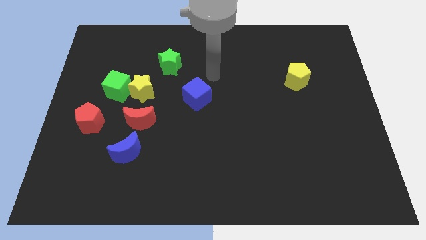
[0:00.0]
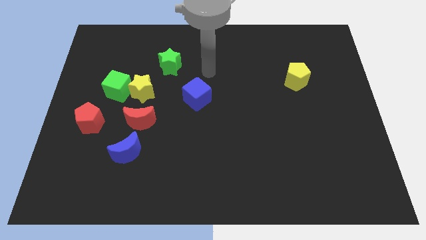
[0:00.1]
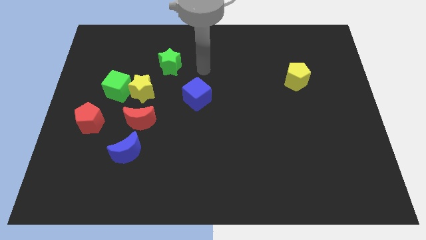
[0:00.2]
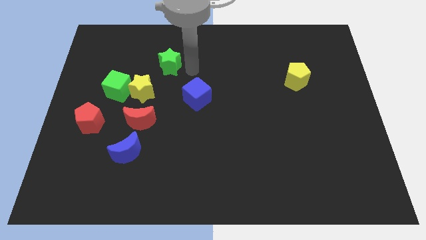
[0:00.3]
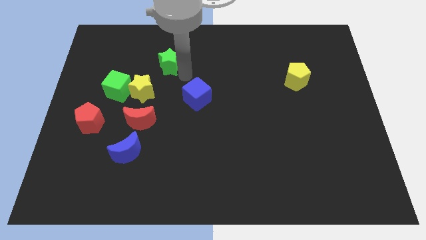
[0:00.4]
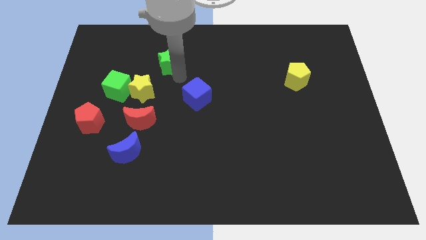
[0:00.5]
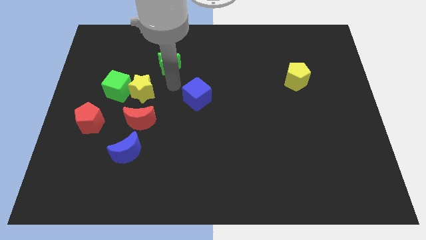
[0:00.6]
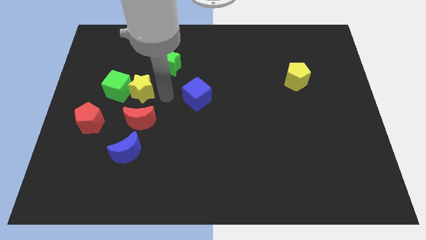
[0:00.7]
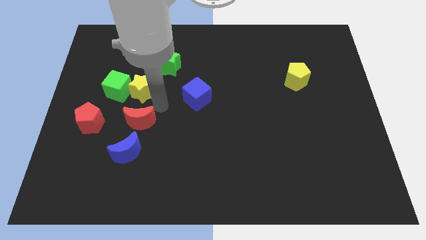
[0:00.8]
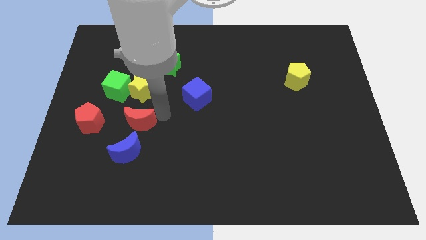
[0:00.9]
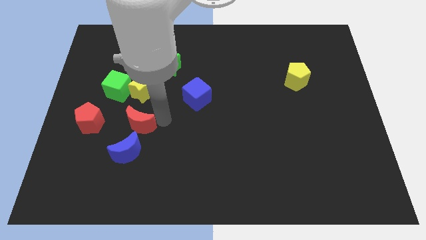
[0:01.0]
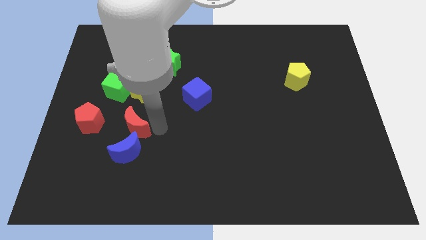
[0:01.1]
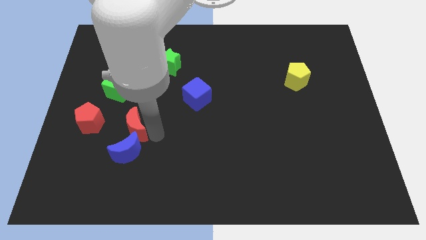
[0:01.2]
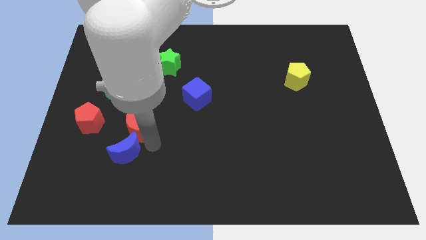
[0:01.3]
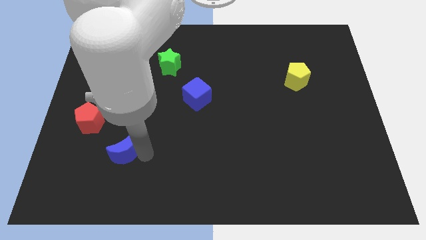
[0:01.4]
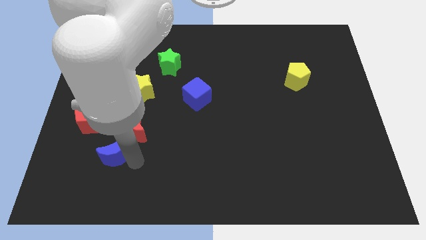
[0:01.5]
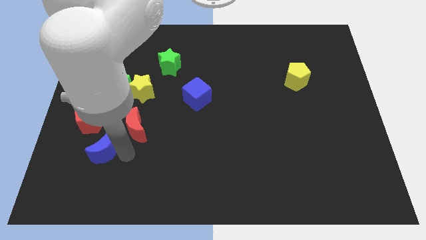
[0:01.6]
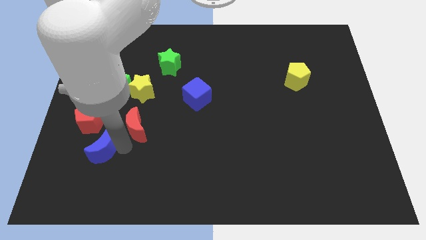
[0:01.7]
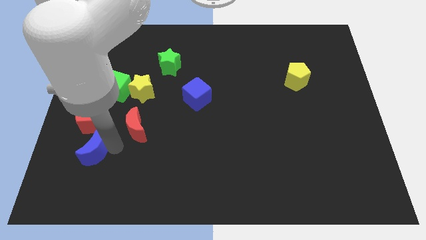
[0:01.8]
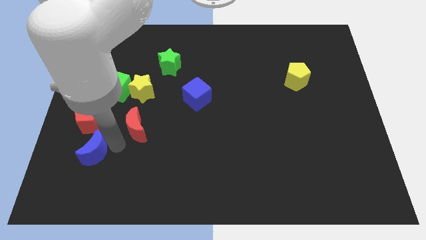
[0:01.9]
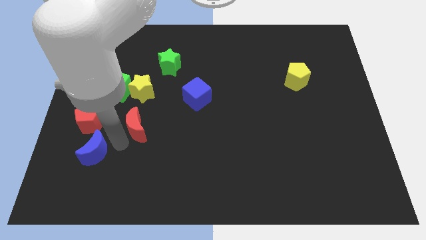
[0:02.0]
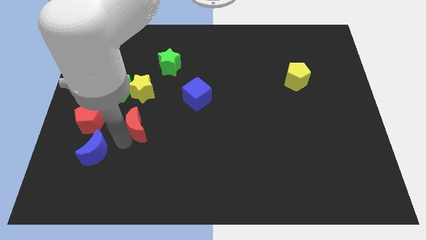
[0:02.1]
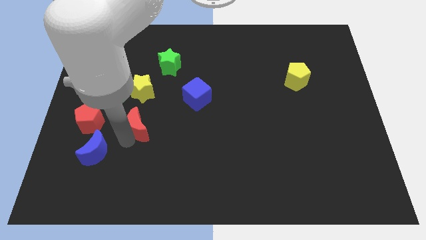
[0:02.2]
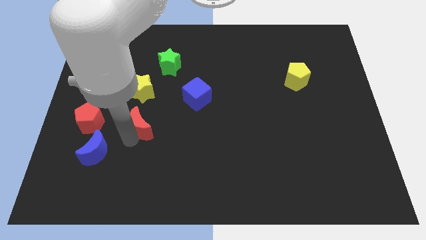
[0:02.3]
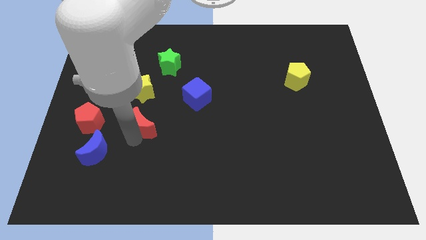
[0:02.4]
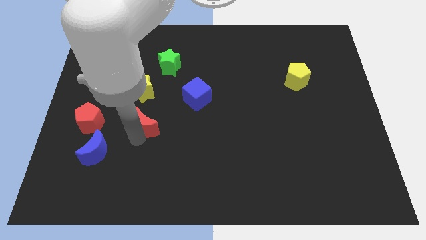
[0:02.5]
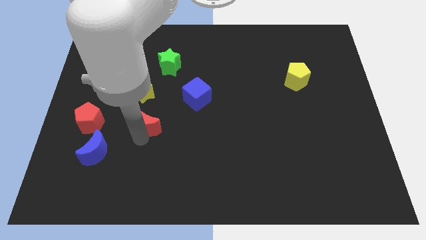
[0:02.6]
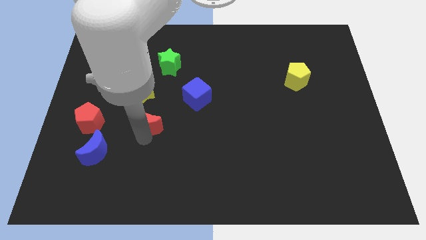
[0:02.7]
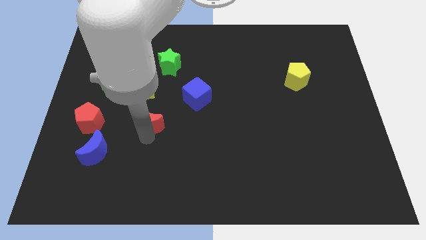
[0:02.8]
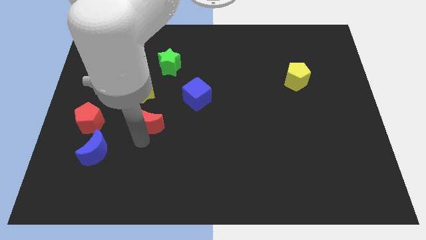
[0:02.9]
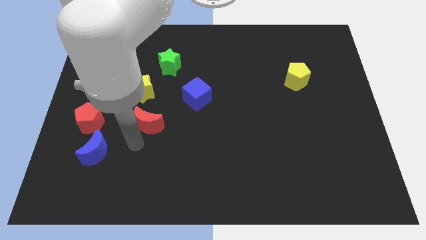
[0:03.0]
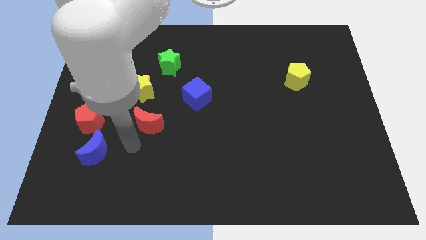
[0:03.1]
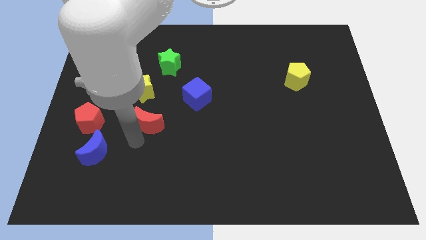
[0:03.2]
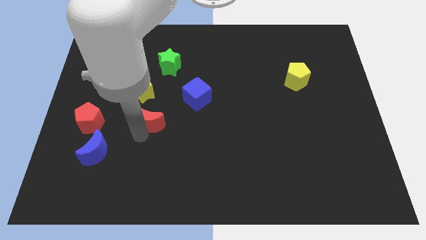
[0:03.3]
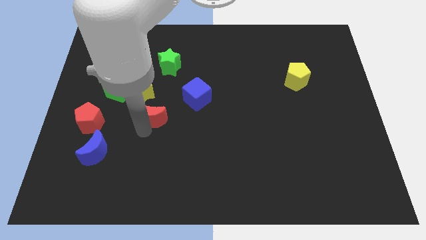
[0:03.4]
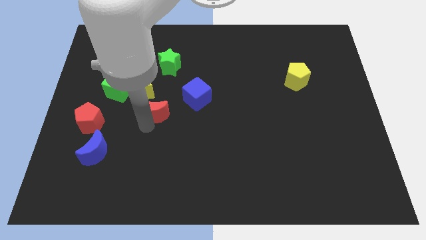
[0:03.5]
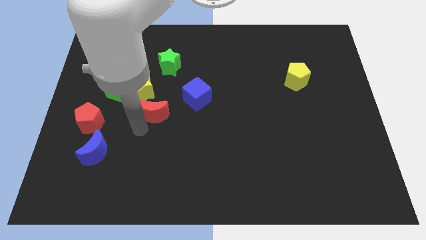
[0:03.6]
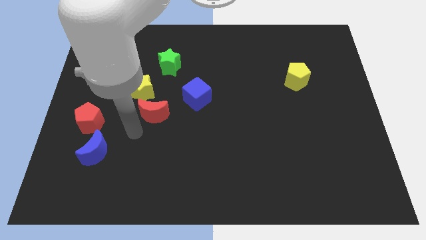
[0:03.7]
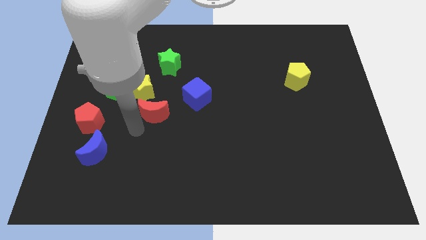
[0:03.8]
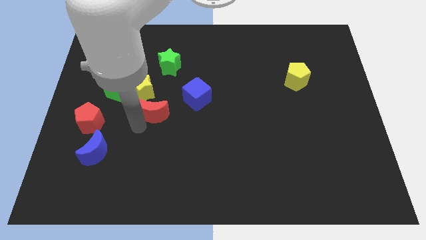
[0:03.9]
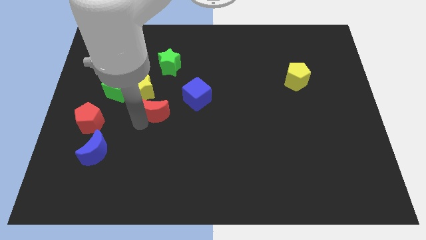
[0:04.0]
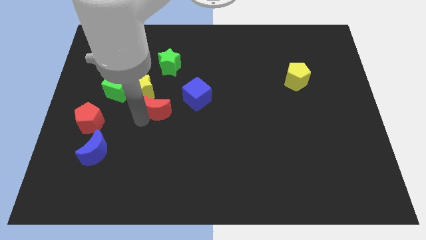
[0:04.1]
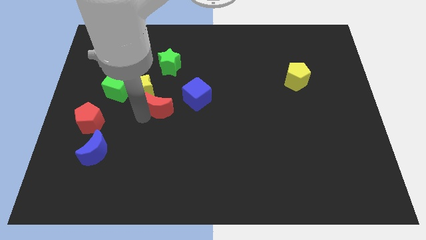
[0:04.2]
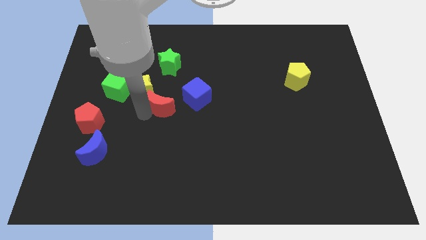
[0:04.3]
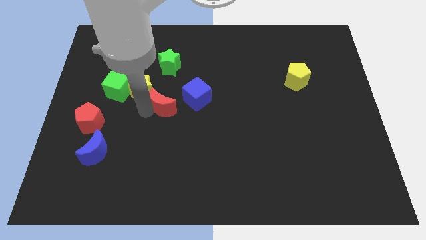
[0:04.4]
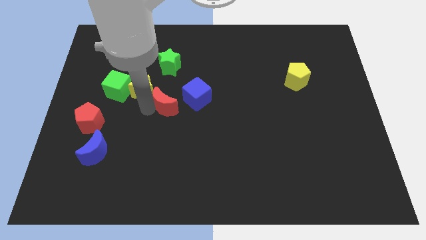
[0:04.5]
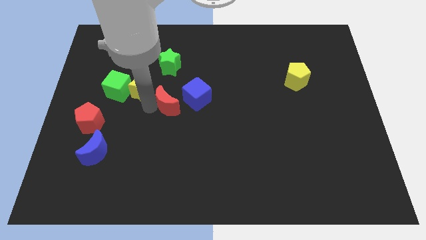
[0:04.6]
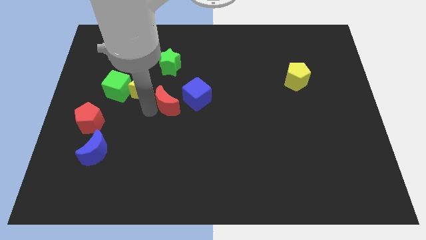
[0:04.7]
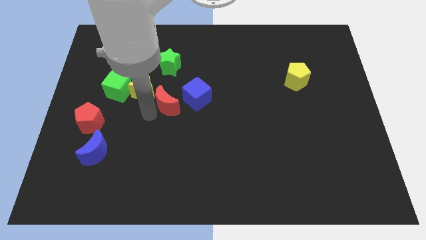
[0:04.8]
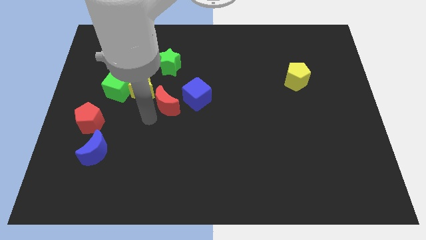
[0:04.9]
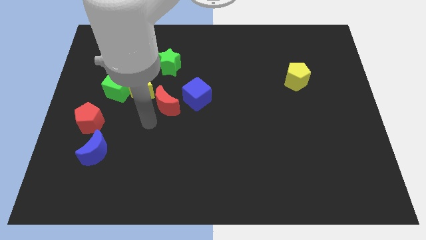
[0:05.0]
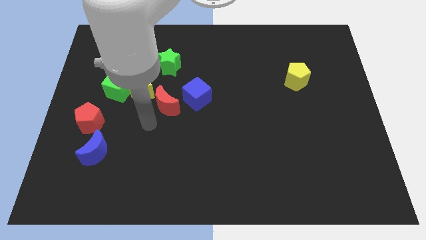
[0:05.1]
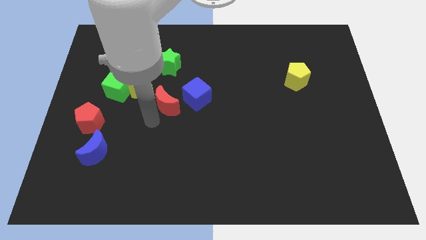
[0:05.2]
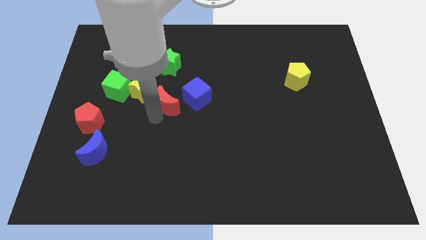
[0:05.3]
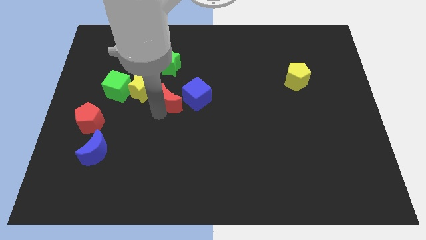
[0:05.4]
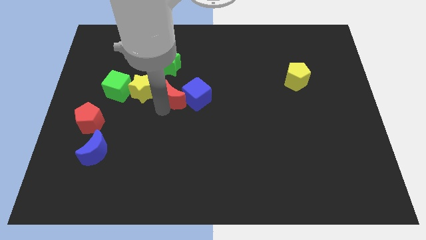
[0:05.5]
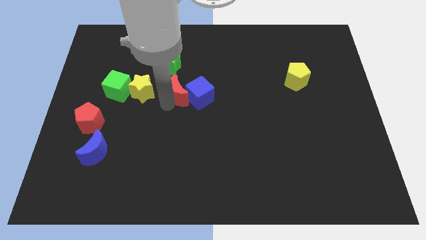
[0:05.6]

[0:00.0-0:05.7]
push the red moon to the bottom right of the green star

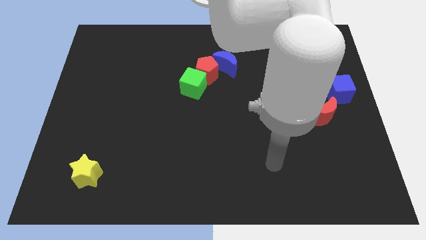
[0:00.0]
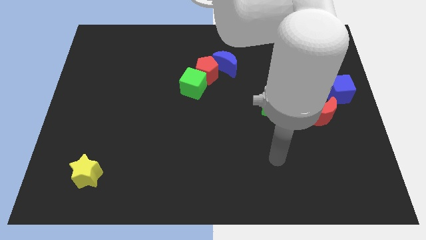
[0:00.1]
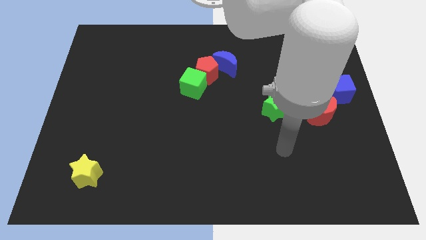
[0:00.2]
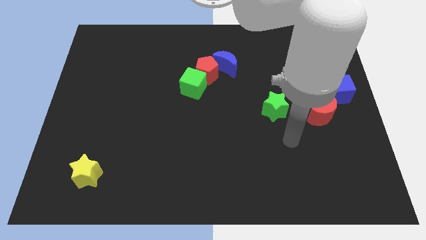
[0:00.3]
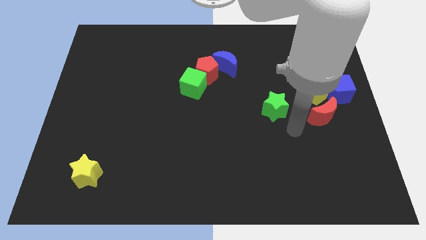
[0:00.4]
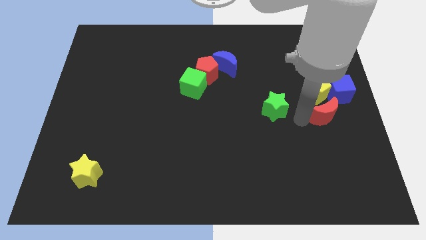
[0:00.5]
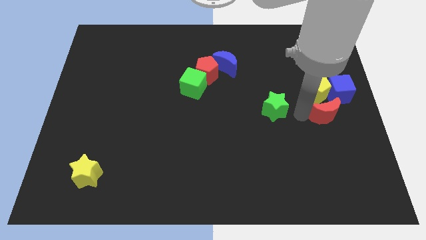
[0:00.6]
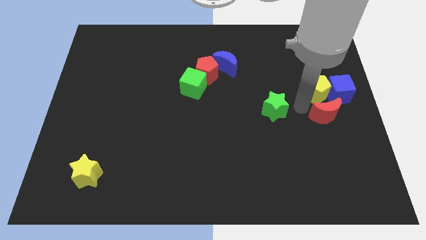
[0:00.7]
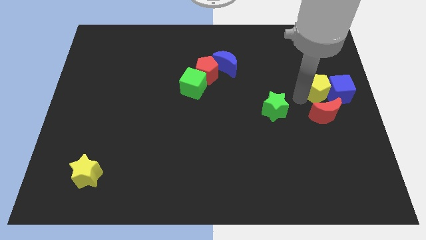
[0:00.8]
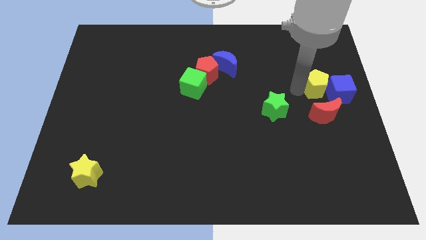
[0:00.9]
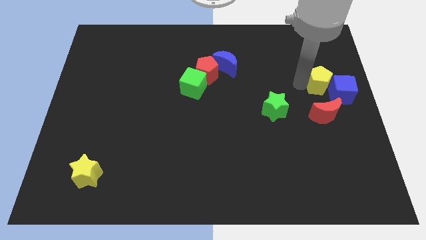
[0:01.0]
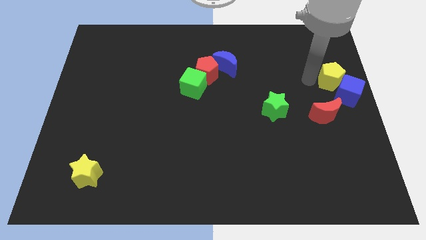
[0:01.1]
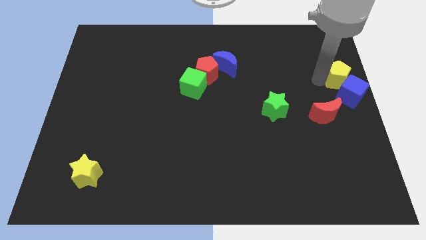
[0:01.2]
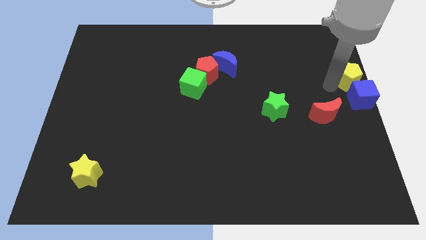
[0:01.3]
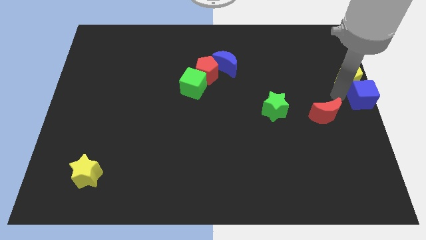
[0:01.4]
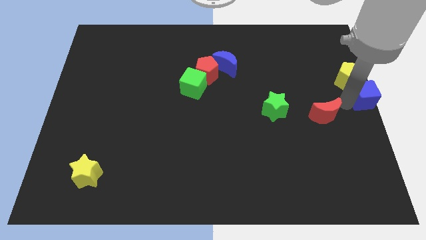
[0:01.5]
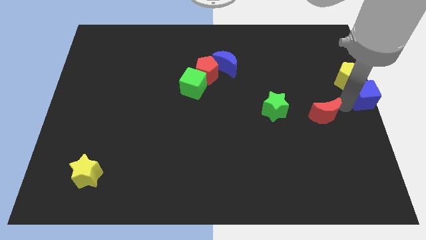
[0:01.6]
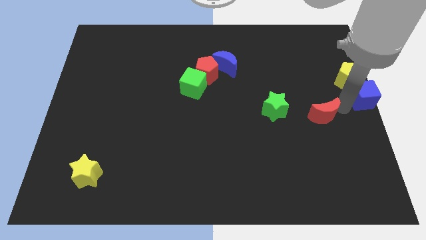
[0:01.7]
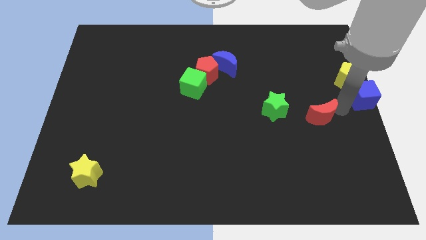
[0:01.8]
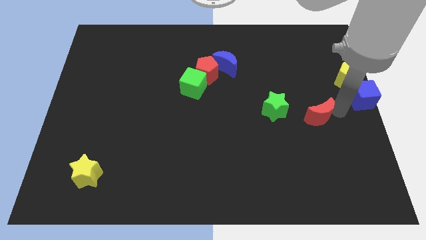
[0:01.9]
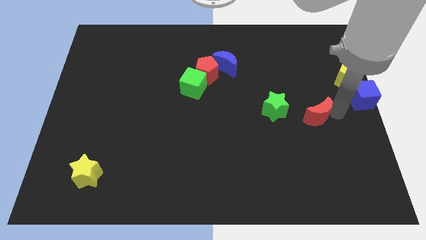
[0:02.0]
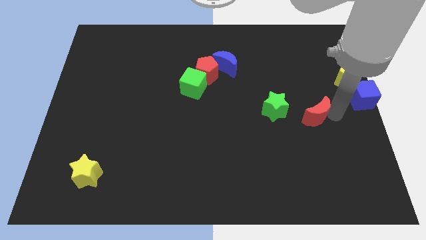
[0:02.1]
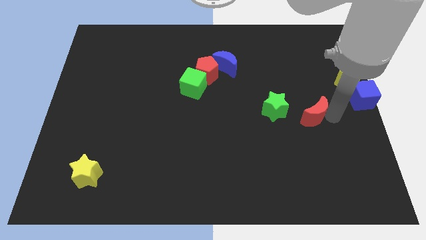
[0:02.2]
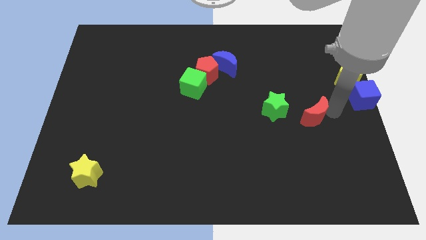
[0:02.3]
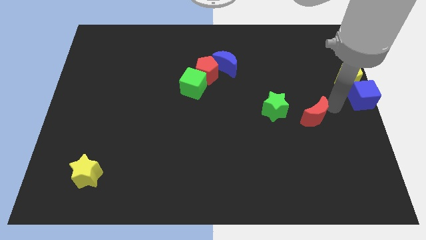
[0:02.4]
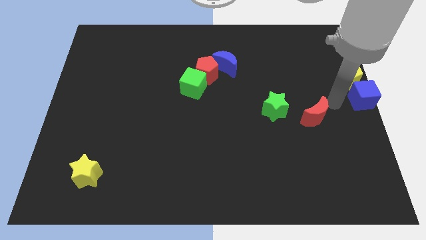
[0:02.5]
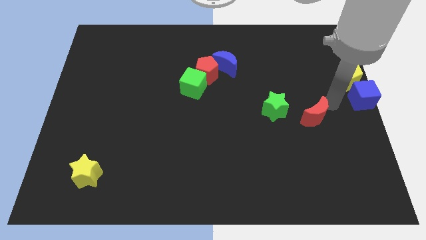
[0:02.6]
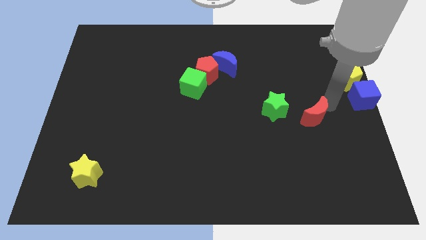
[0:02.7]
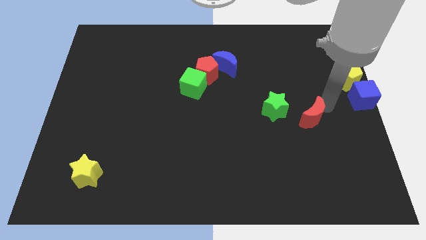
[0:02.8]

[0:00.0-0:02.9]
move the red moon diagonally down and to the right of the green star
